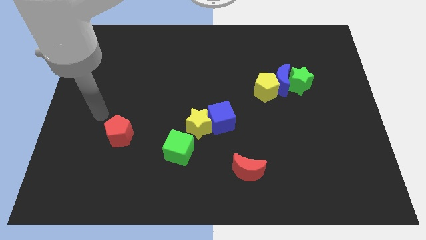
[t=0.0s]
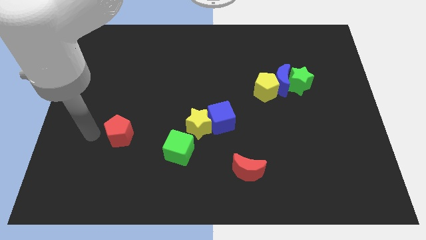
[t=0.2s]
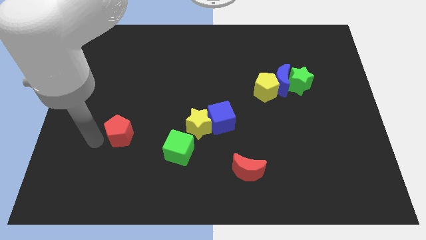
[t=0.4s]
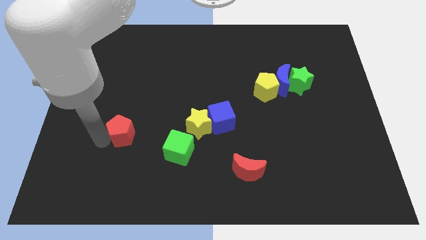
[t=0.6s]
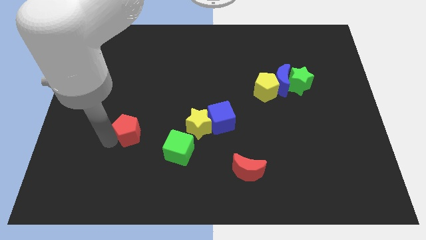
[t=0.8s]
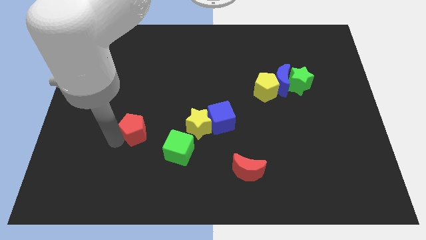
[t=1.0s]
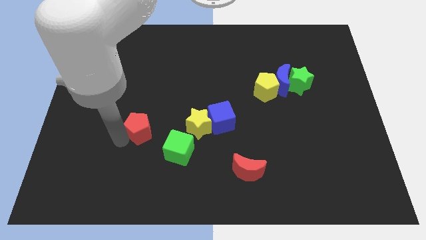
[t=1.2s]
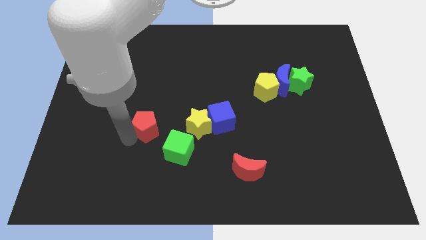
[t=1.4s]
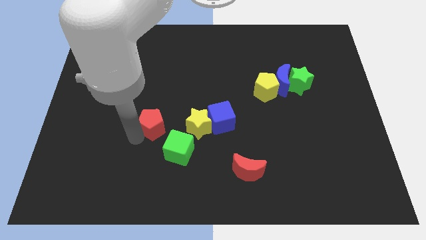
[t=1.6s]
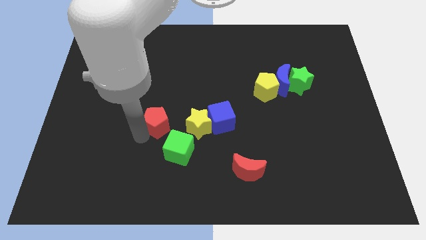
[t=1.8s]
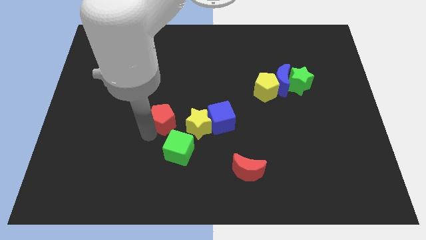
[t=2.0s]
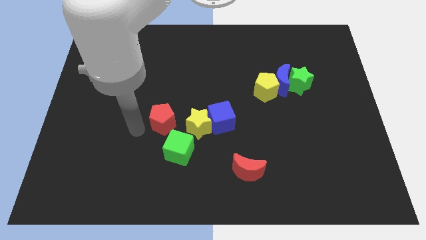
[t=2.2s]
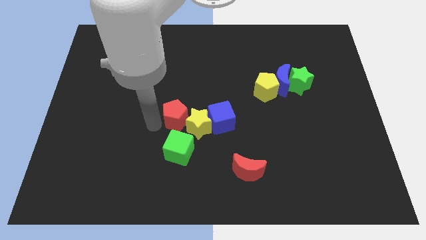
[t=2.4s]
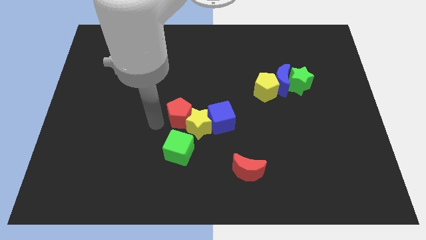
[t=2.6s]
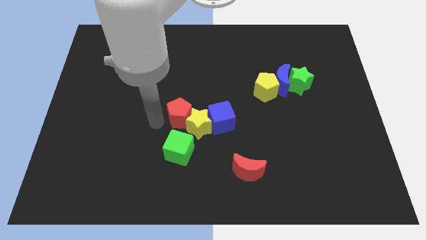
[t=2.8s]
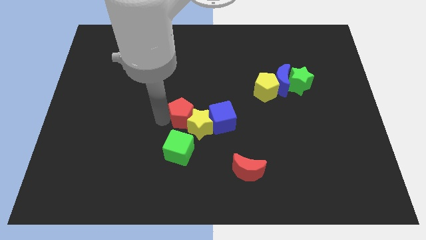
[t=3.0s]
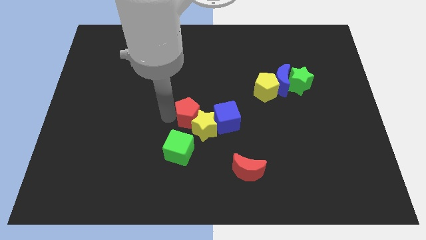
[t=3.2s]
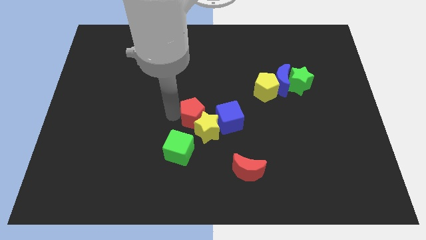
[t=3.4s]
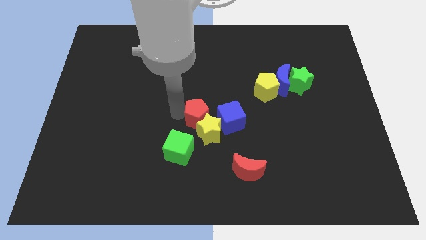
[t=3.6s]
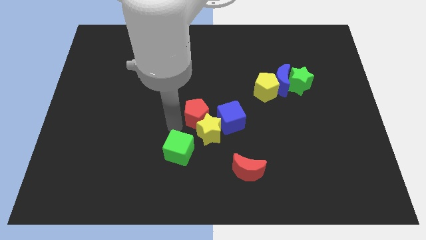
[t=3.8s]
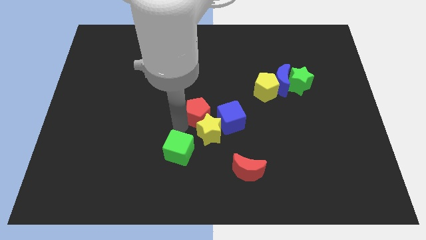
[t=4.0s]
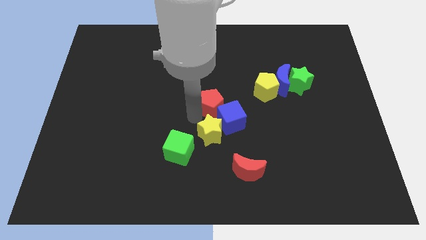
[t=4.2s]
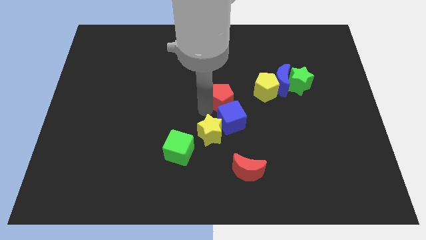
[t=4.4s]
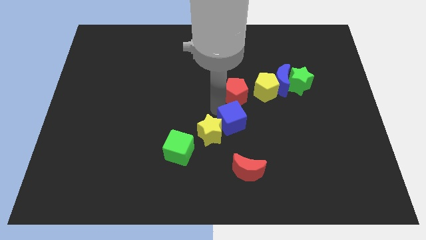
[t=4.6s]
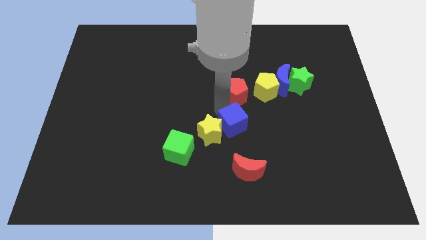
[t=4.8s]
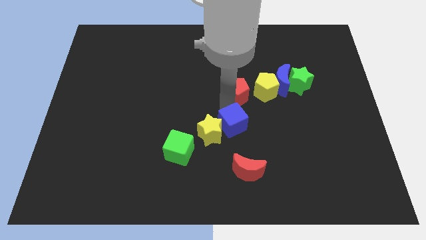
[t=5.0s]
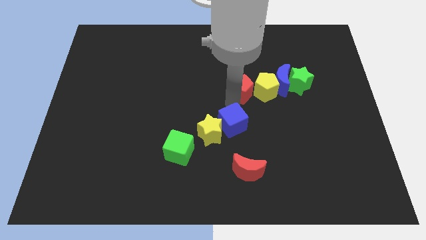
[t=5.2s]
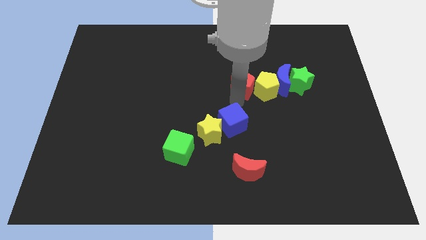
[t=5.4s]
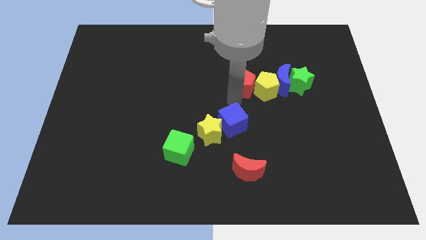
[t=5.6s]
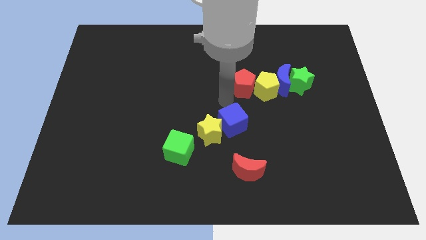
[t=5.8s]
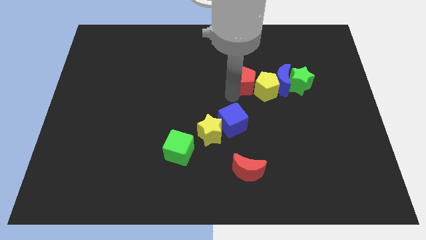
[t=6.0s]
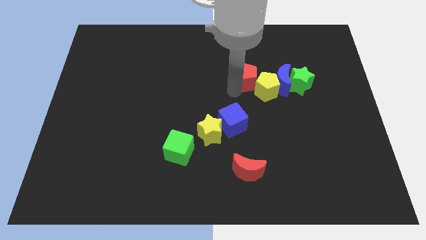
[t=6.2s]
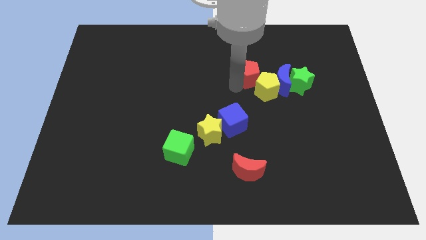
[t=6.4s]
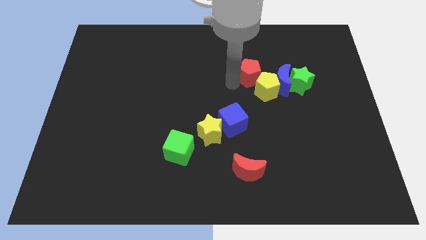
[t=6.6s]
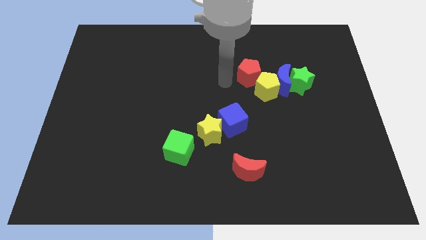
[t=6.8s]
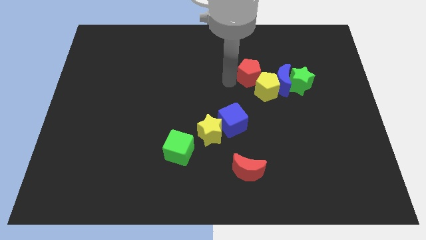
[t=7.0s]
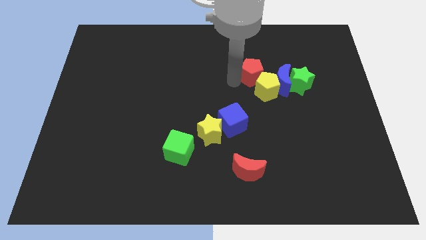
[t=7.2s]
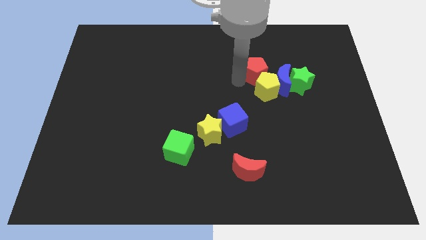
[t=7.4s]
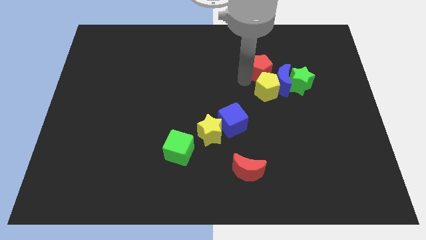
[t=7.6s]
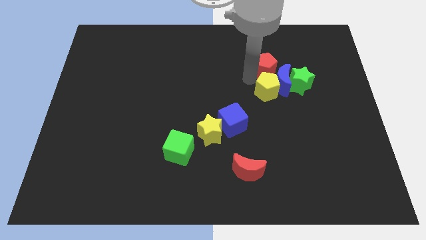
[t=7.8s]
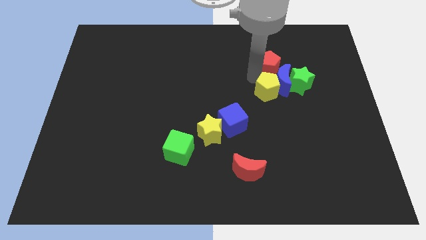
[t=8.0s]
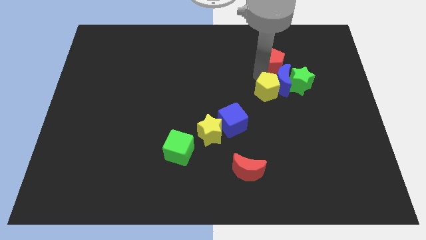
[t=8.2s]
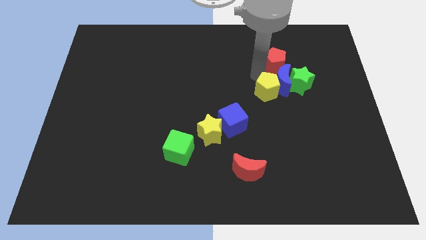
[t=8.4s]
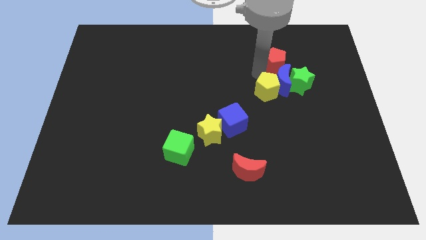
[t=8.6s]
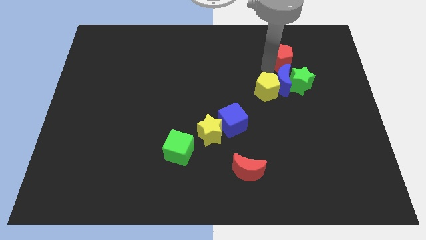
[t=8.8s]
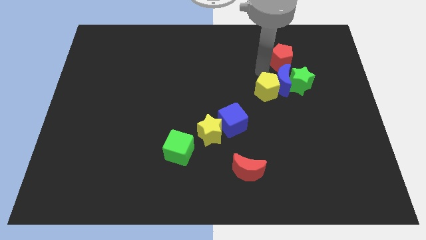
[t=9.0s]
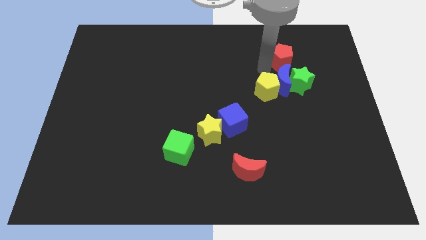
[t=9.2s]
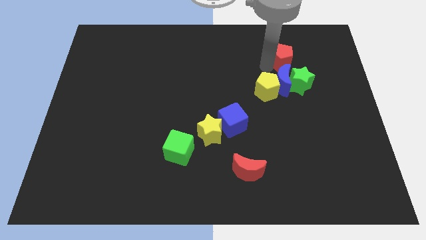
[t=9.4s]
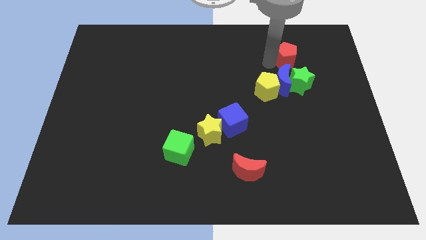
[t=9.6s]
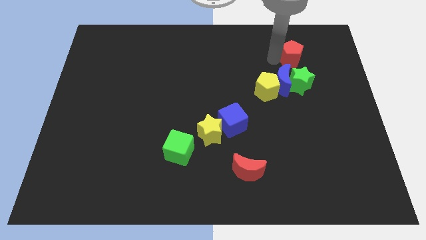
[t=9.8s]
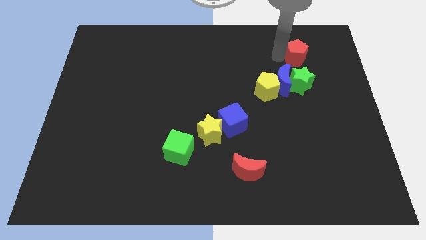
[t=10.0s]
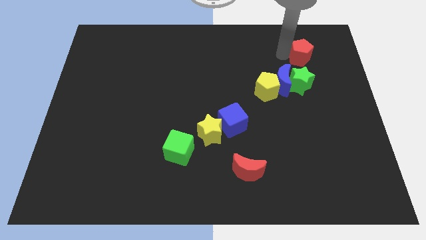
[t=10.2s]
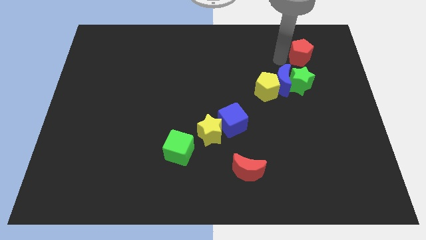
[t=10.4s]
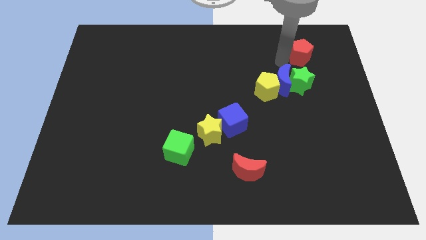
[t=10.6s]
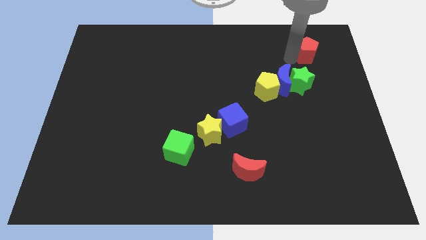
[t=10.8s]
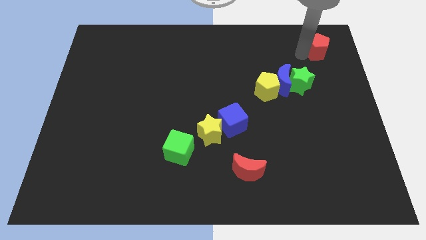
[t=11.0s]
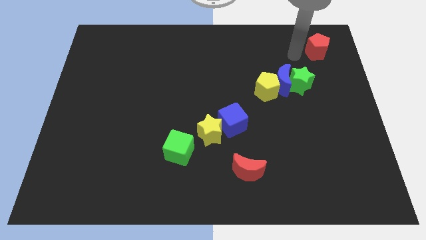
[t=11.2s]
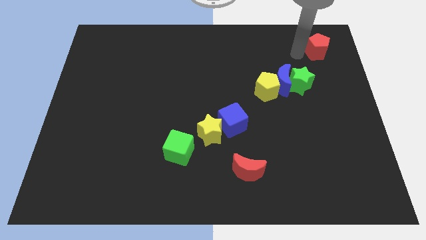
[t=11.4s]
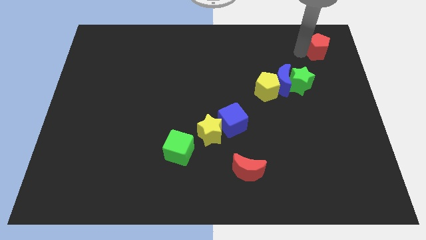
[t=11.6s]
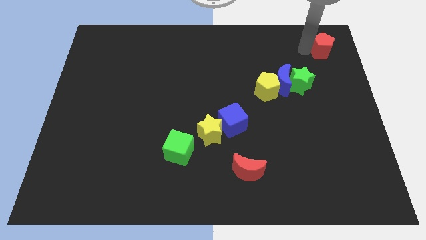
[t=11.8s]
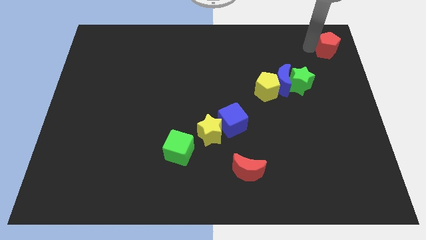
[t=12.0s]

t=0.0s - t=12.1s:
push the red pentagon to the top right of the board
